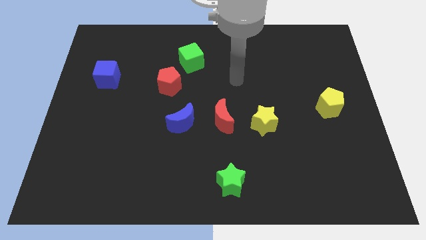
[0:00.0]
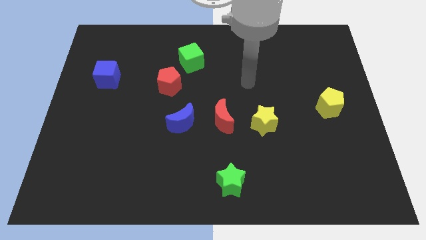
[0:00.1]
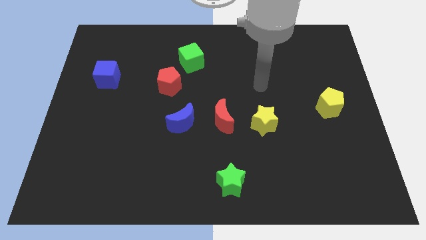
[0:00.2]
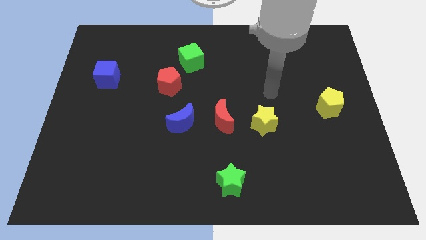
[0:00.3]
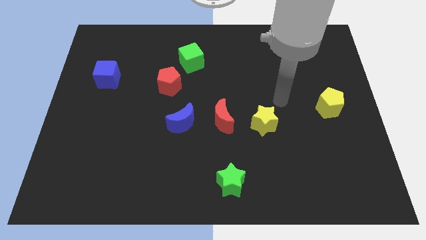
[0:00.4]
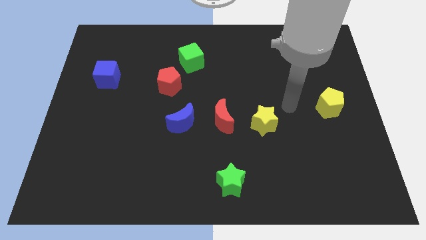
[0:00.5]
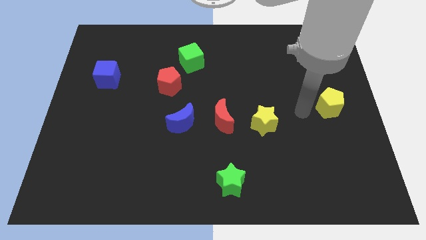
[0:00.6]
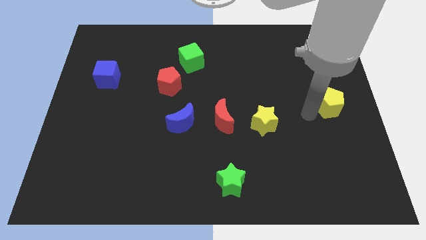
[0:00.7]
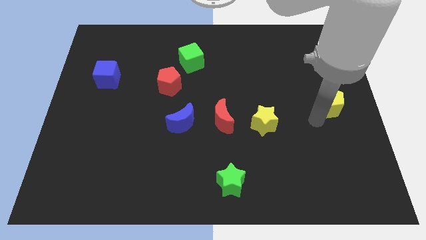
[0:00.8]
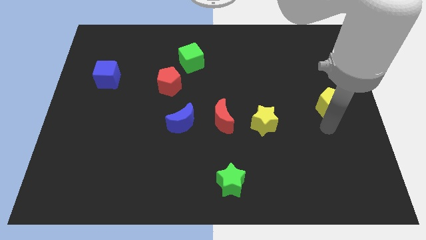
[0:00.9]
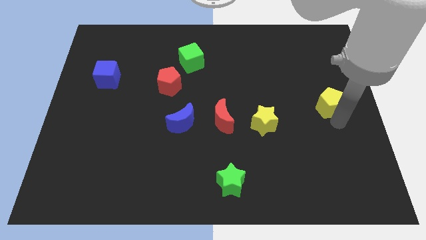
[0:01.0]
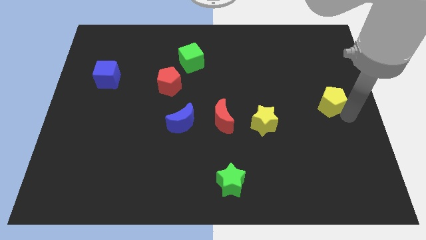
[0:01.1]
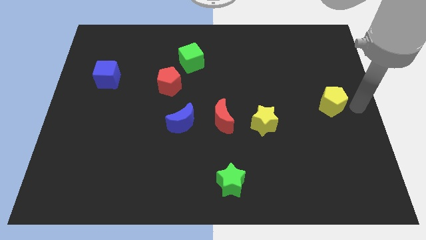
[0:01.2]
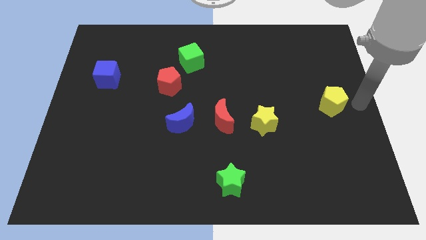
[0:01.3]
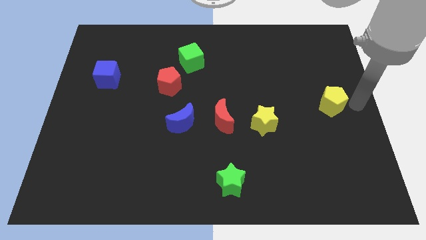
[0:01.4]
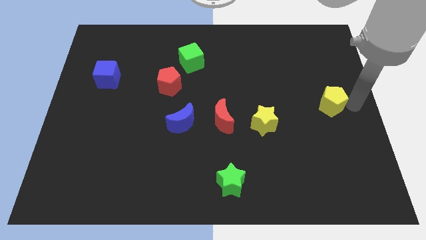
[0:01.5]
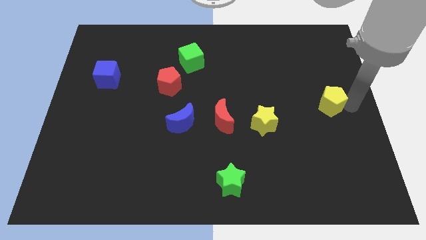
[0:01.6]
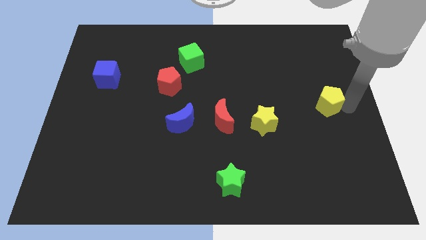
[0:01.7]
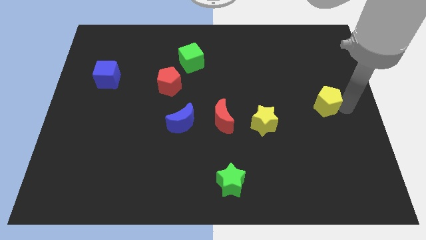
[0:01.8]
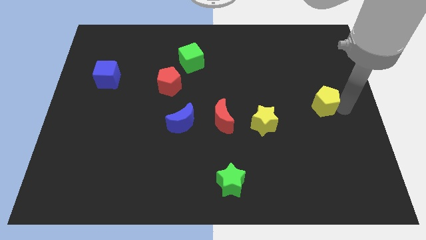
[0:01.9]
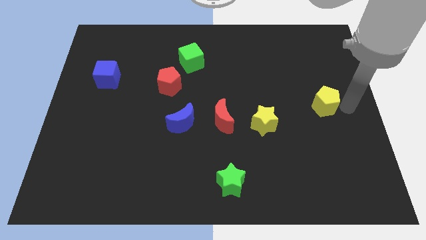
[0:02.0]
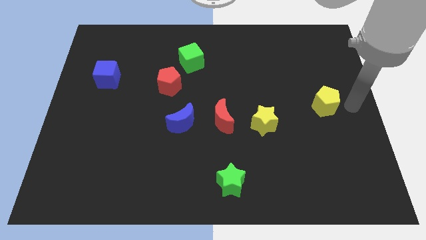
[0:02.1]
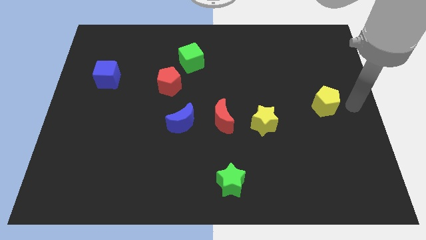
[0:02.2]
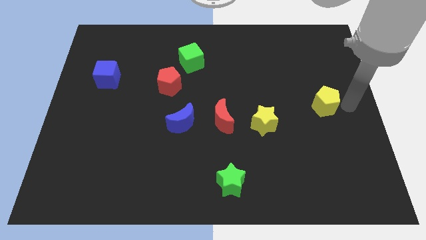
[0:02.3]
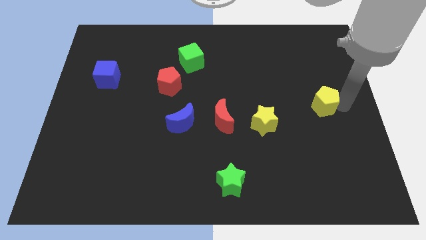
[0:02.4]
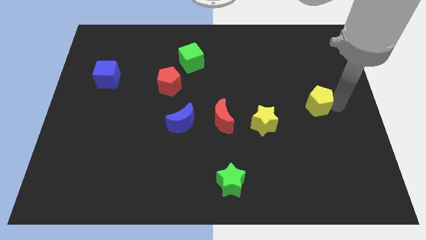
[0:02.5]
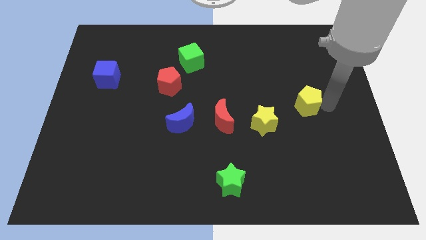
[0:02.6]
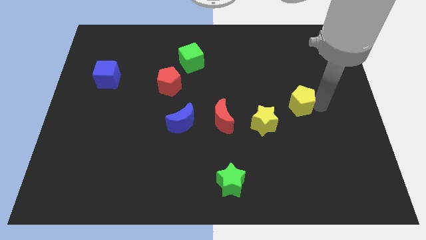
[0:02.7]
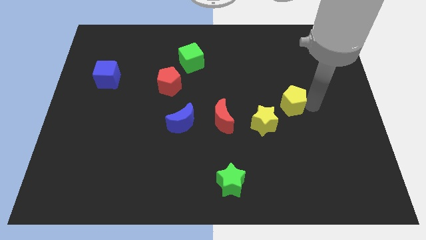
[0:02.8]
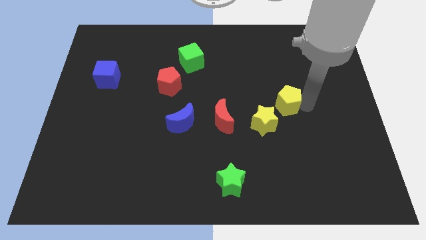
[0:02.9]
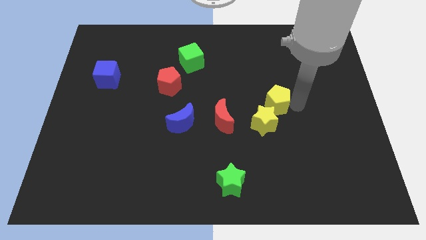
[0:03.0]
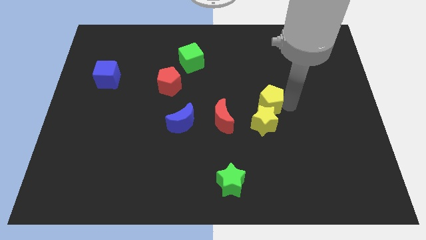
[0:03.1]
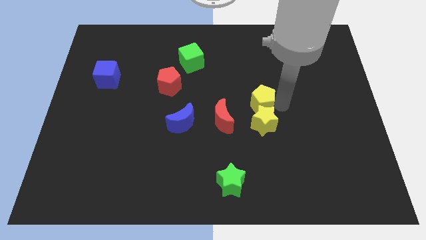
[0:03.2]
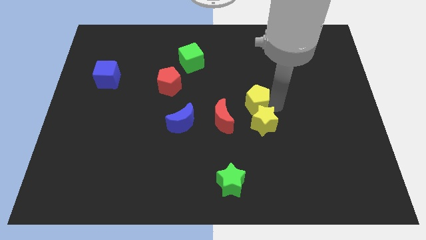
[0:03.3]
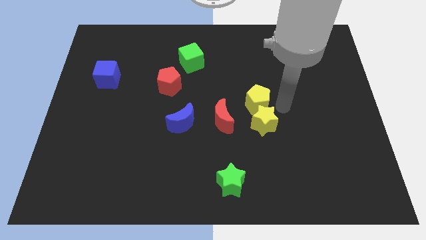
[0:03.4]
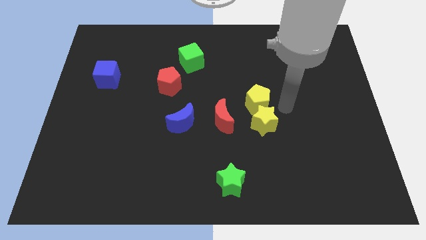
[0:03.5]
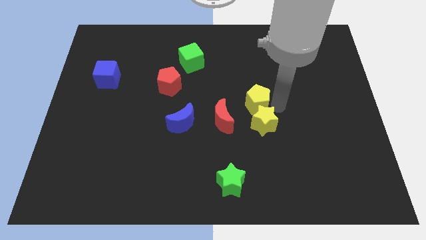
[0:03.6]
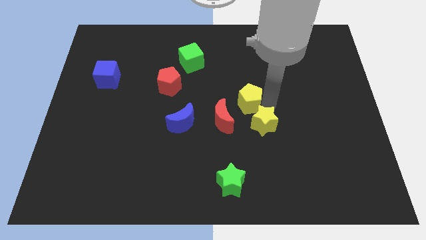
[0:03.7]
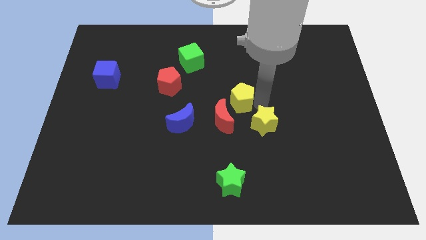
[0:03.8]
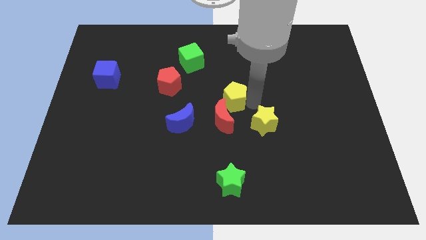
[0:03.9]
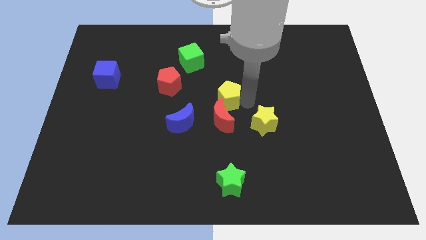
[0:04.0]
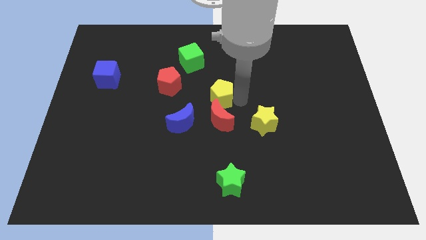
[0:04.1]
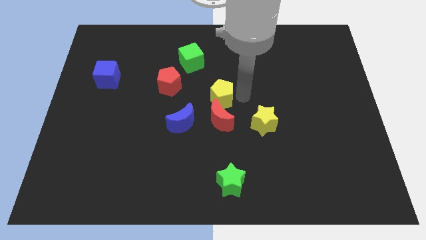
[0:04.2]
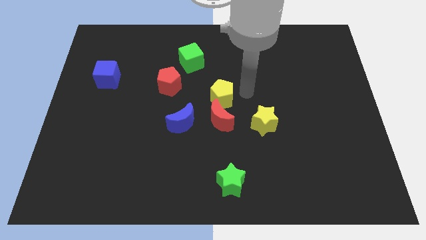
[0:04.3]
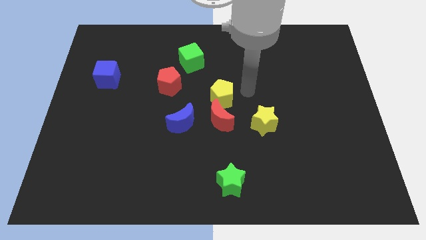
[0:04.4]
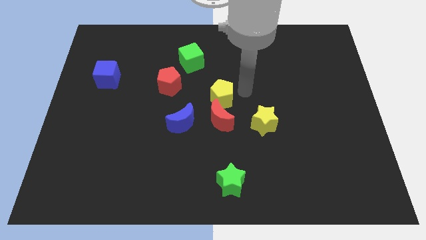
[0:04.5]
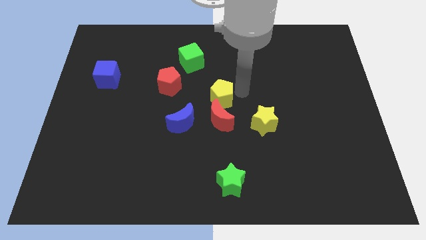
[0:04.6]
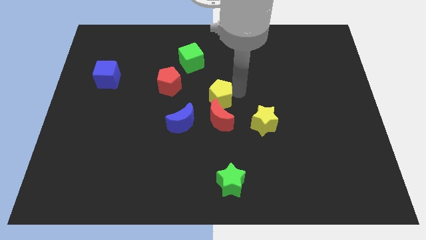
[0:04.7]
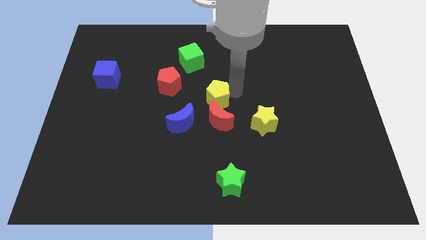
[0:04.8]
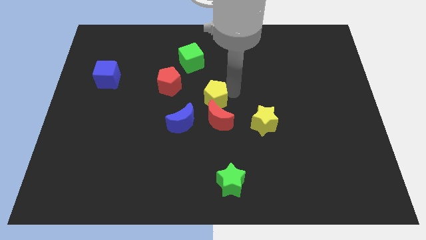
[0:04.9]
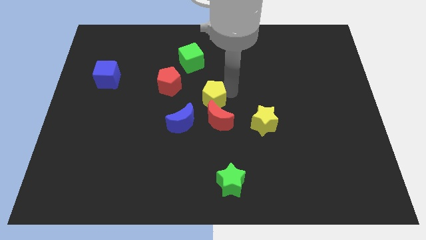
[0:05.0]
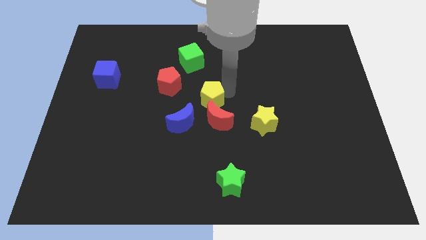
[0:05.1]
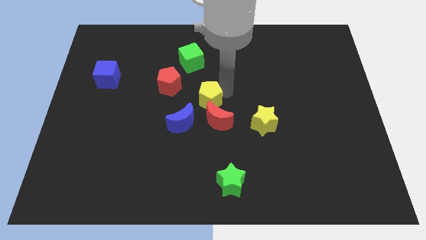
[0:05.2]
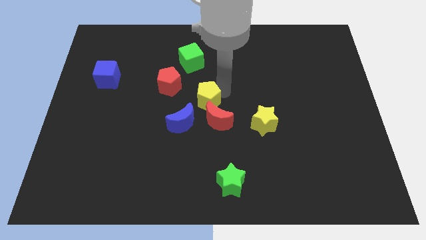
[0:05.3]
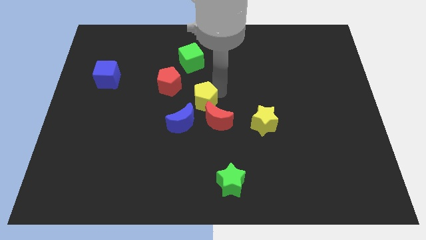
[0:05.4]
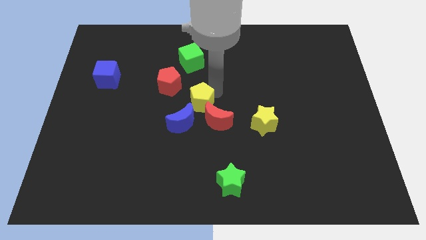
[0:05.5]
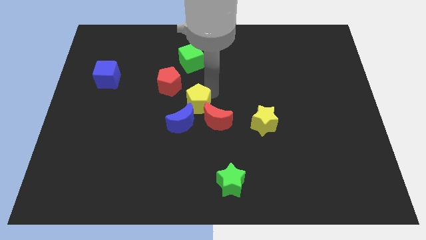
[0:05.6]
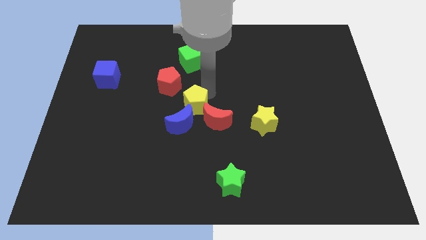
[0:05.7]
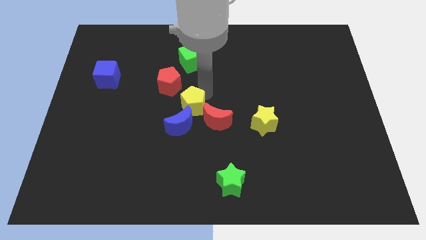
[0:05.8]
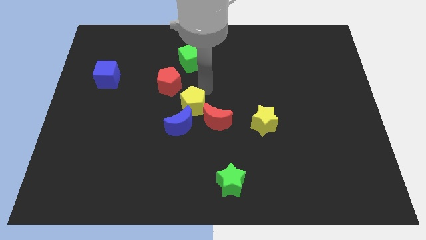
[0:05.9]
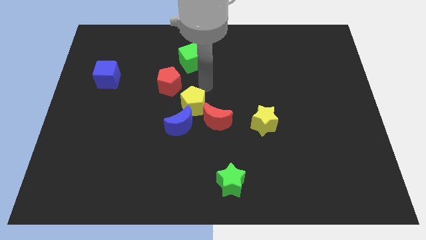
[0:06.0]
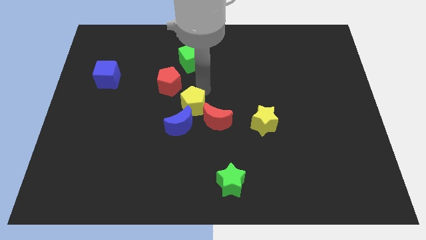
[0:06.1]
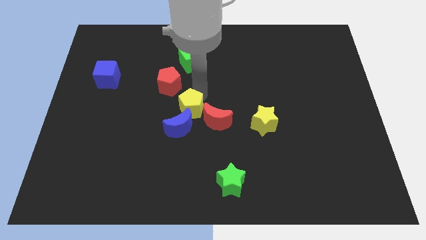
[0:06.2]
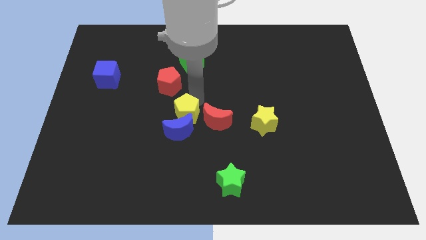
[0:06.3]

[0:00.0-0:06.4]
move the yellow pentagon next to the blue moon

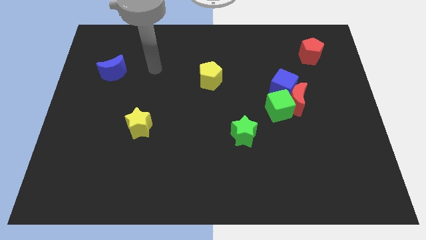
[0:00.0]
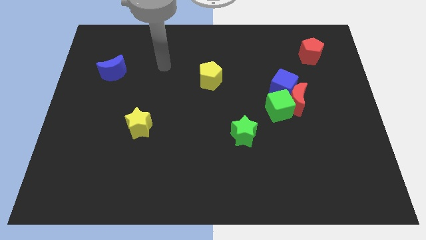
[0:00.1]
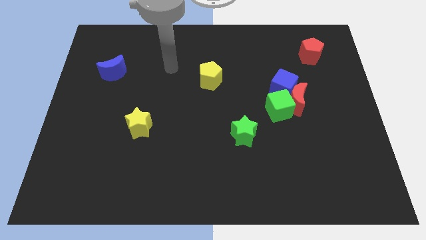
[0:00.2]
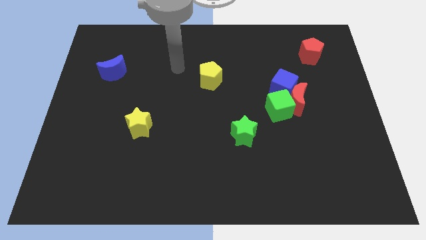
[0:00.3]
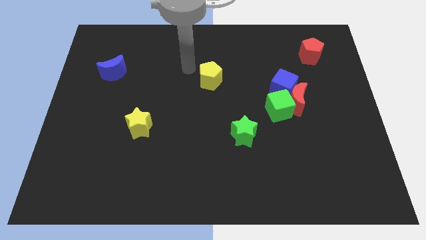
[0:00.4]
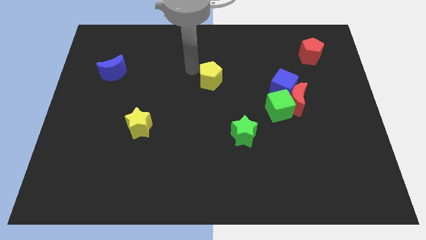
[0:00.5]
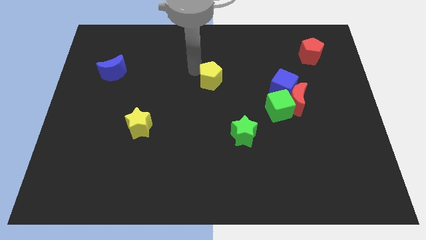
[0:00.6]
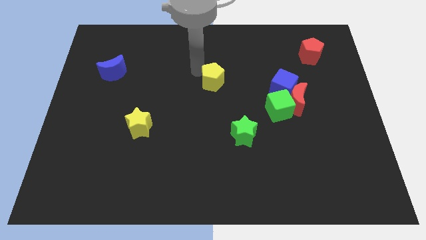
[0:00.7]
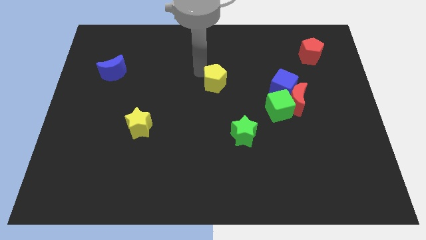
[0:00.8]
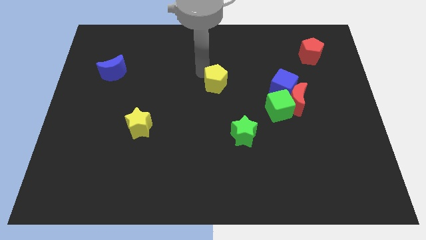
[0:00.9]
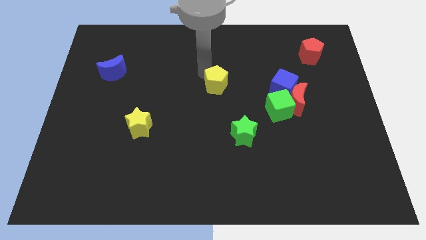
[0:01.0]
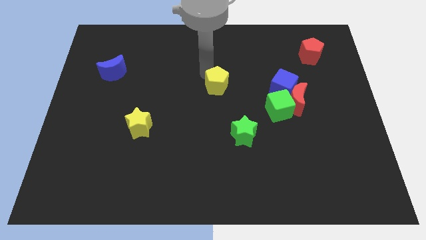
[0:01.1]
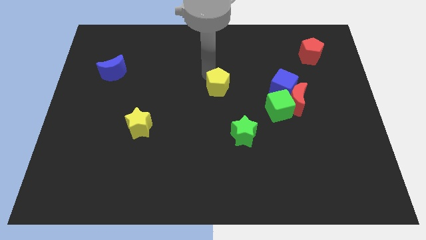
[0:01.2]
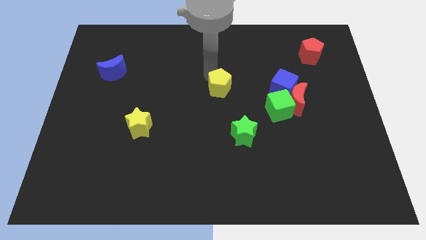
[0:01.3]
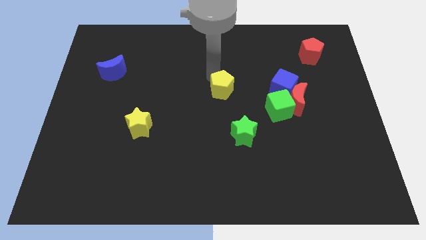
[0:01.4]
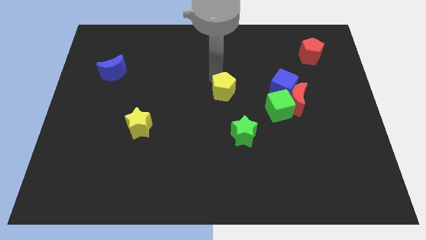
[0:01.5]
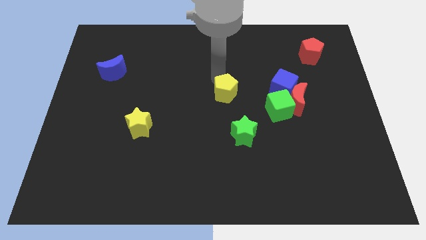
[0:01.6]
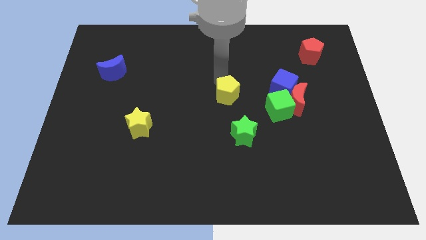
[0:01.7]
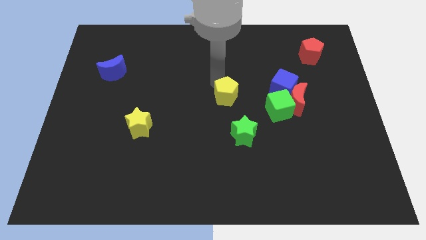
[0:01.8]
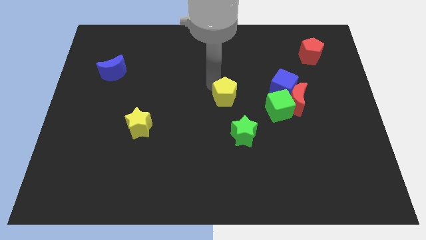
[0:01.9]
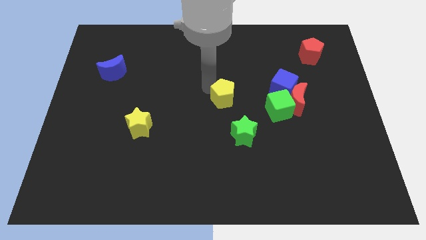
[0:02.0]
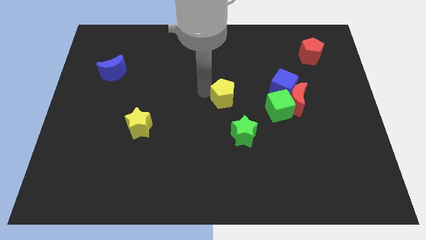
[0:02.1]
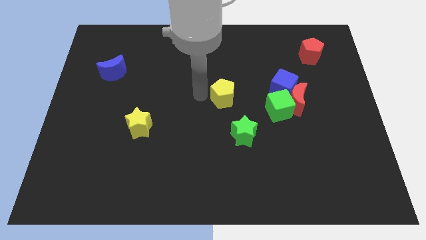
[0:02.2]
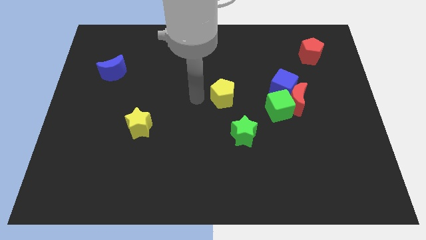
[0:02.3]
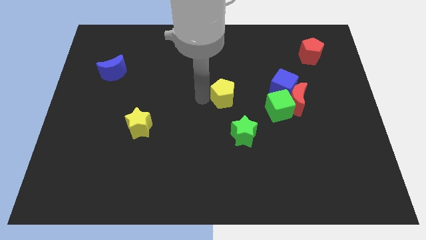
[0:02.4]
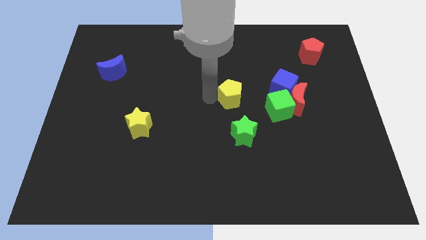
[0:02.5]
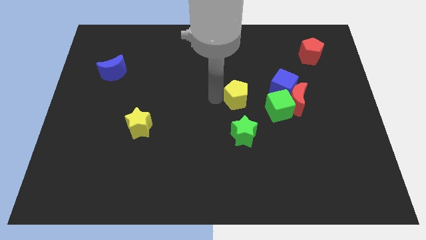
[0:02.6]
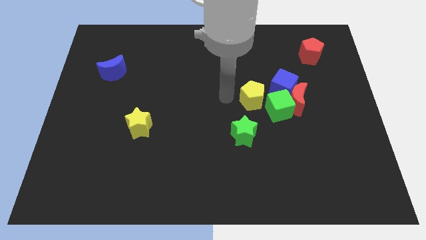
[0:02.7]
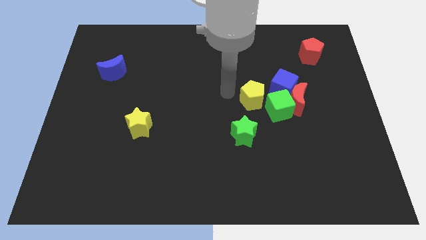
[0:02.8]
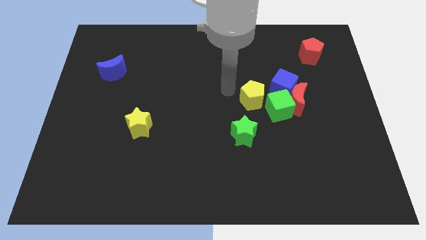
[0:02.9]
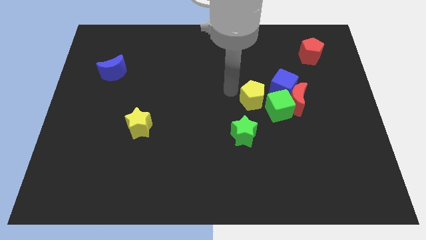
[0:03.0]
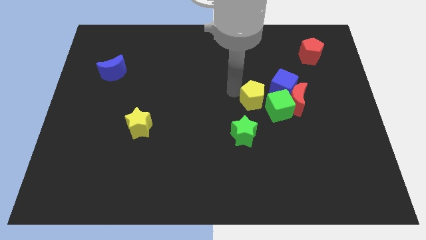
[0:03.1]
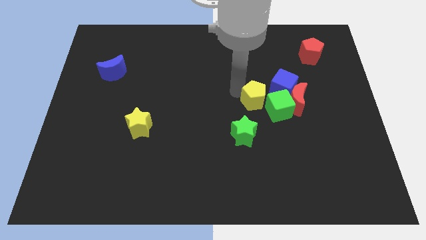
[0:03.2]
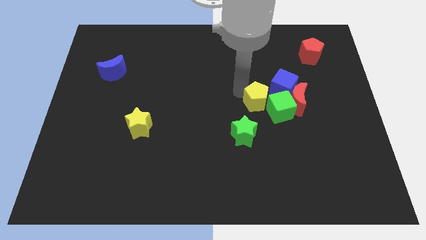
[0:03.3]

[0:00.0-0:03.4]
move the yellow pentagon close to the green cube
